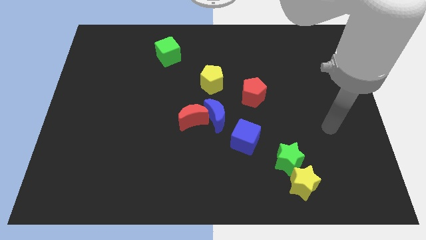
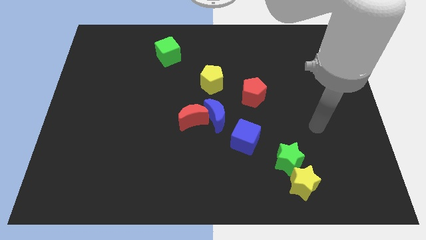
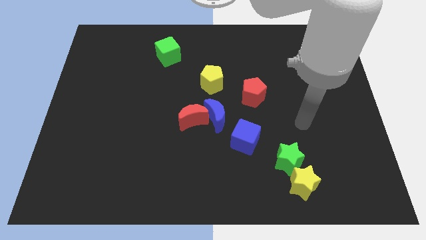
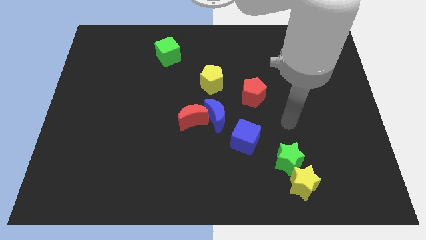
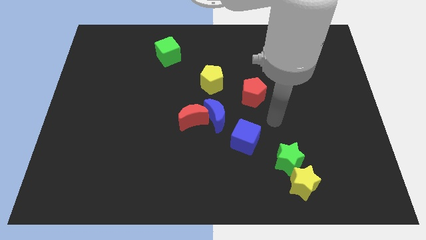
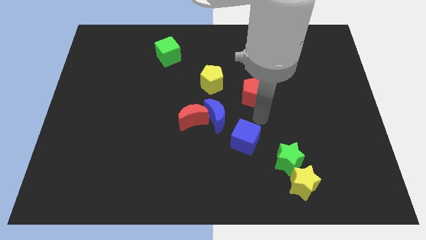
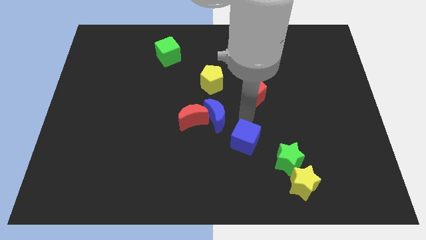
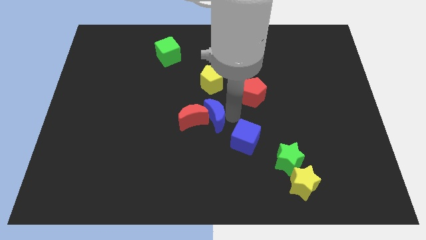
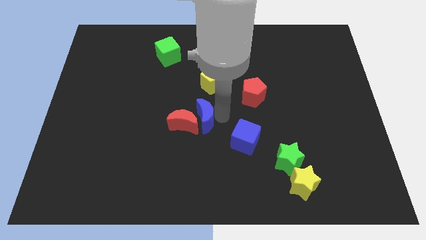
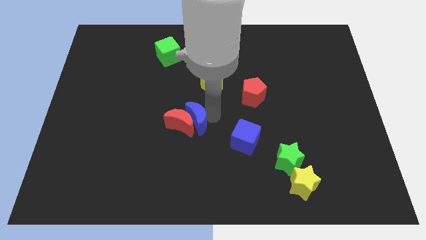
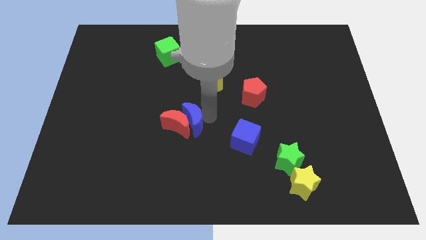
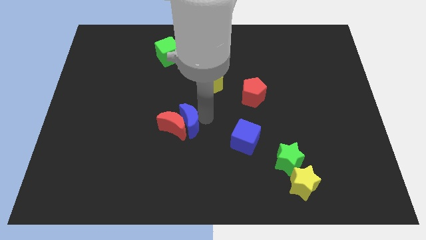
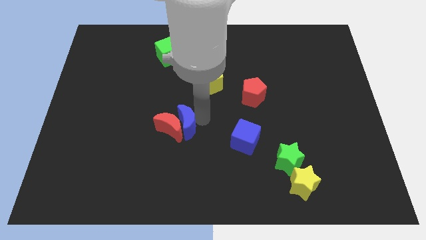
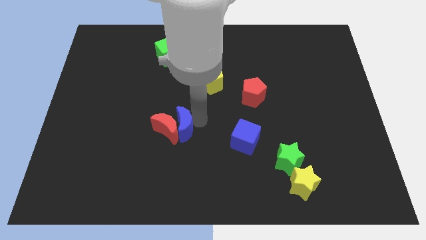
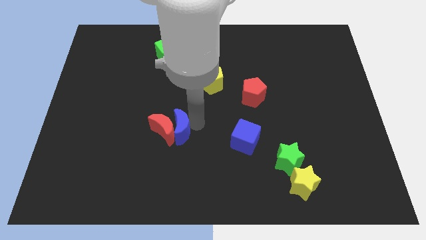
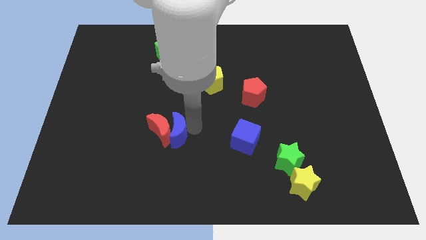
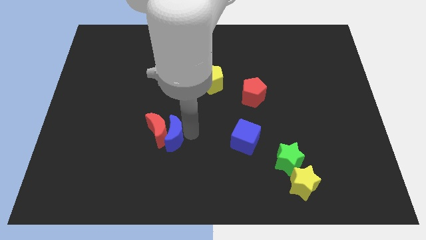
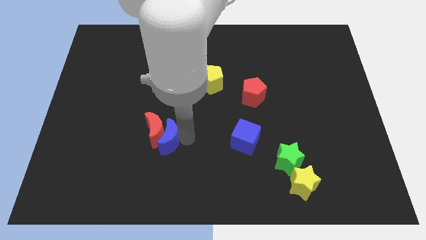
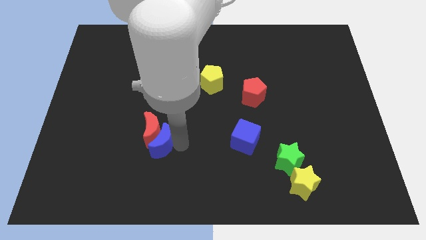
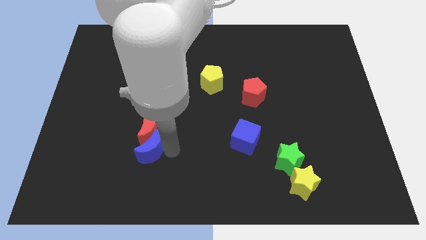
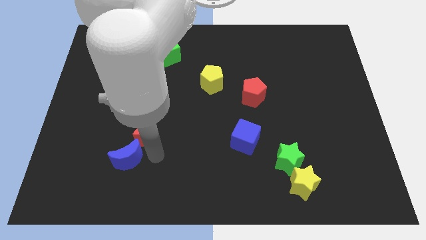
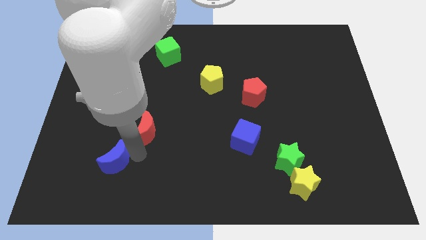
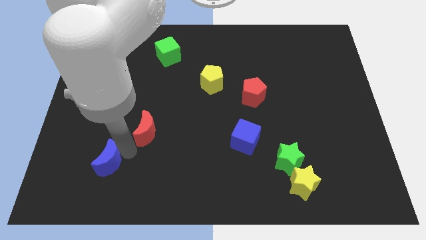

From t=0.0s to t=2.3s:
separate the red moon from the blue moon

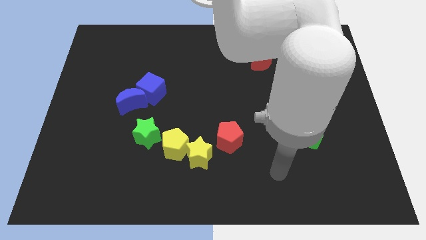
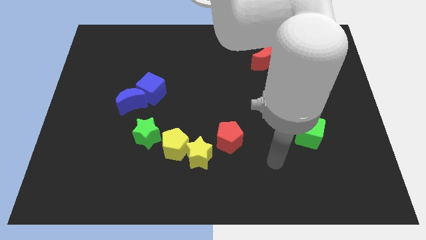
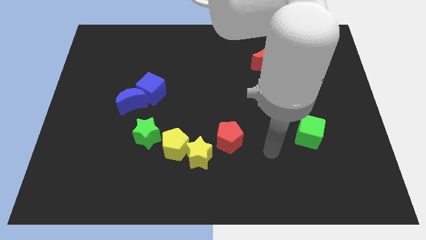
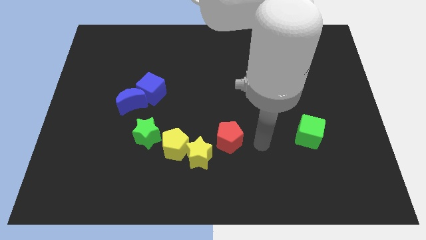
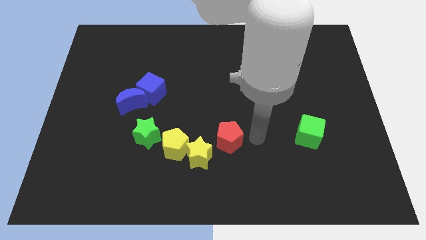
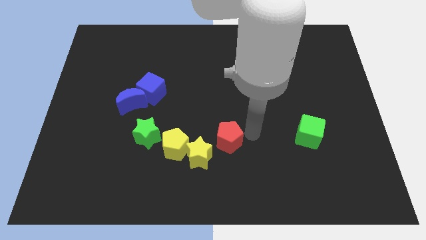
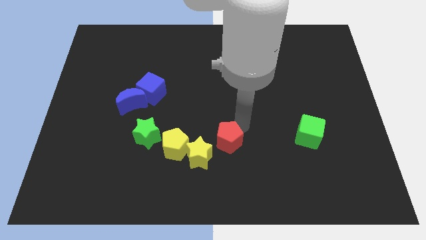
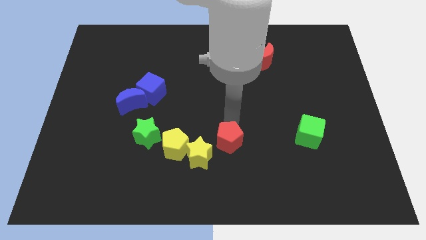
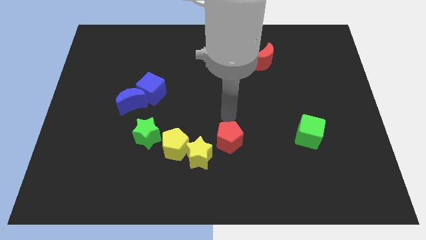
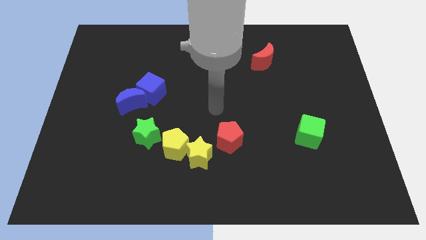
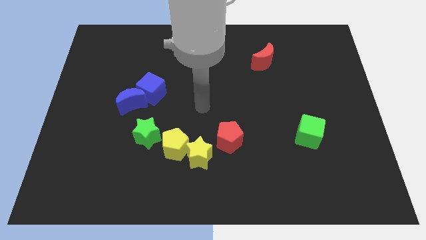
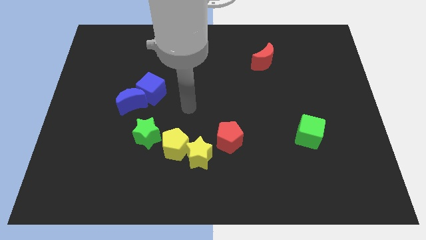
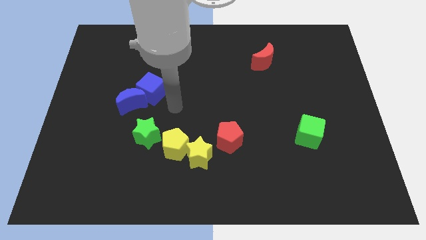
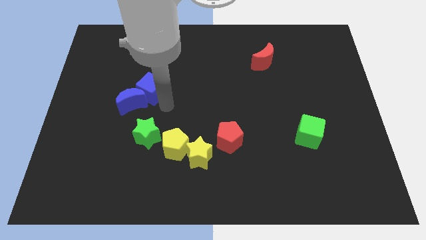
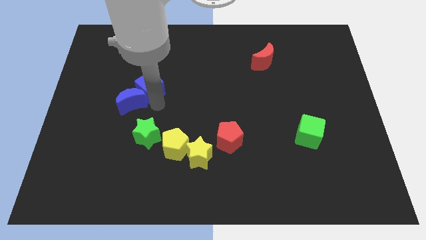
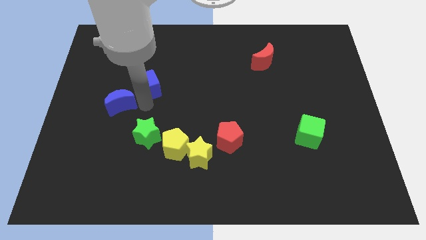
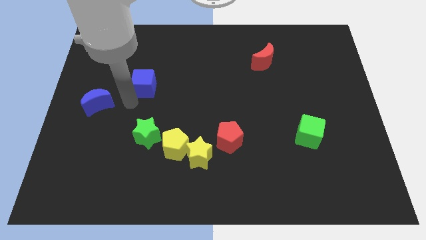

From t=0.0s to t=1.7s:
pull the blue cube apart from the blue moon

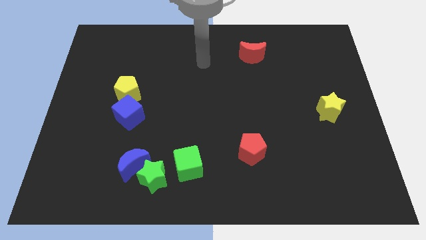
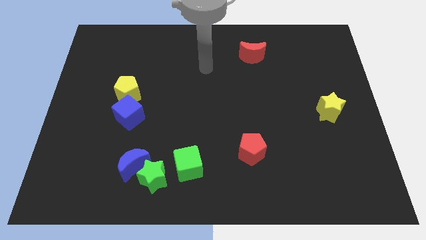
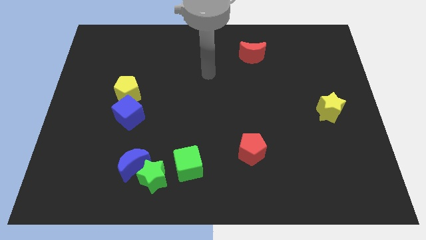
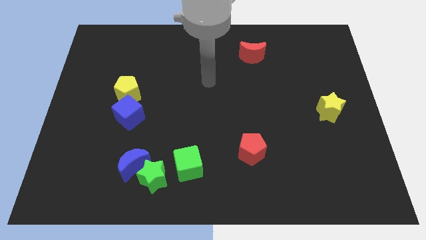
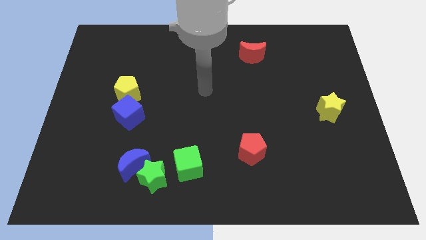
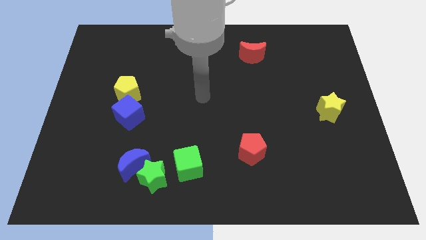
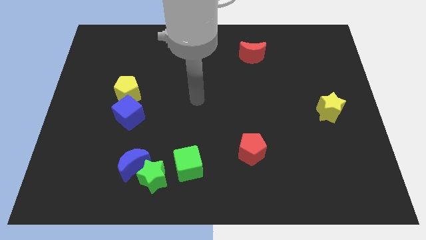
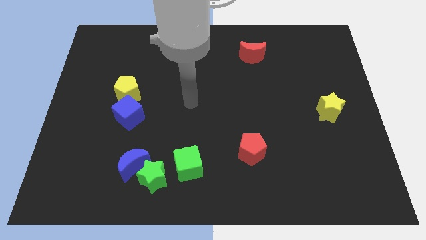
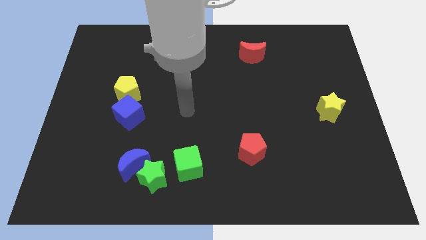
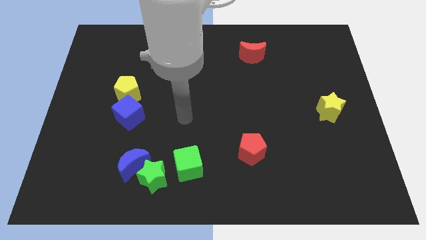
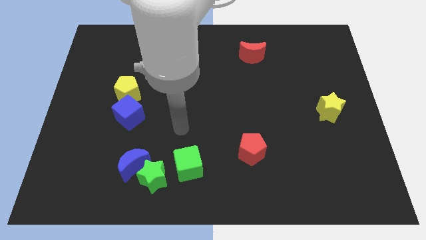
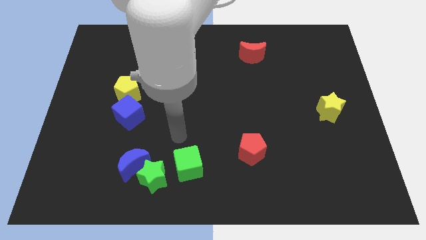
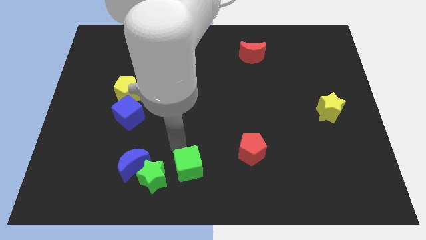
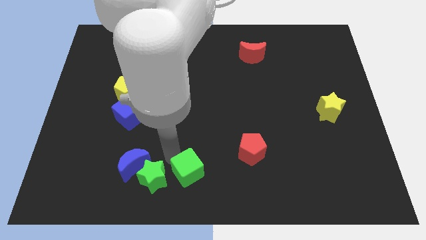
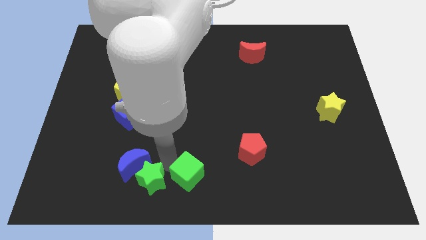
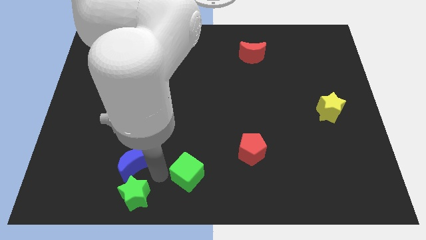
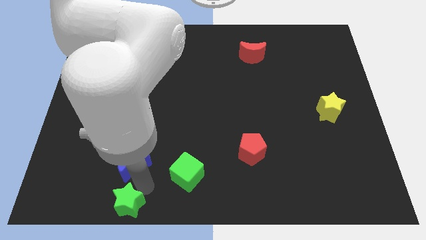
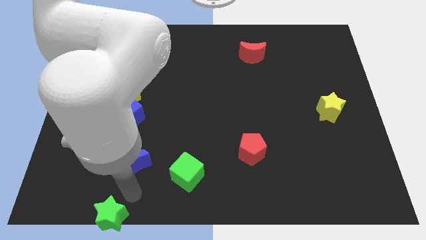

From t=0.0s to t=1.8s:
move the blue moon away from the green star

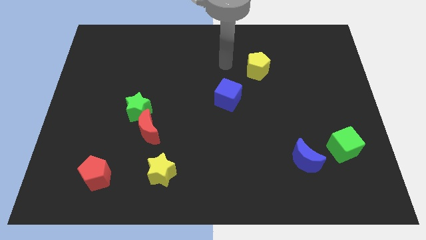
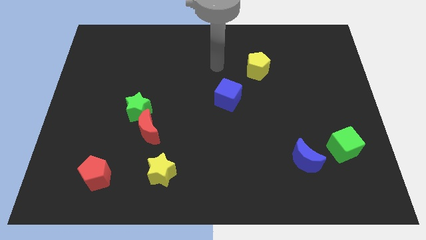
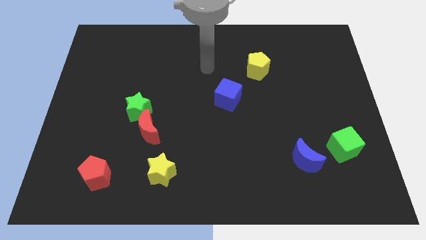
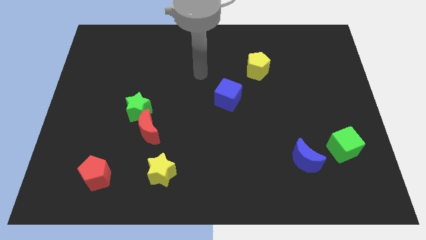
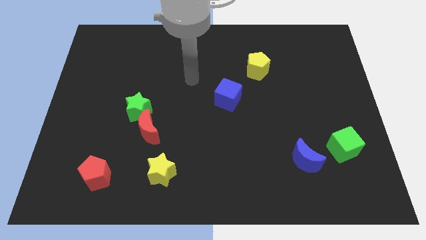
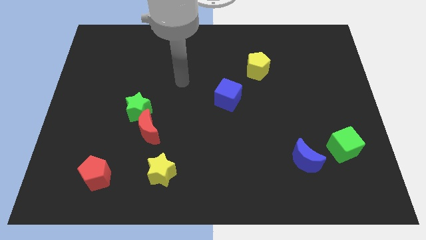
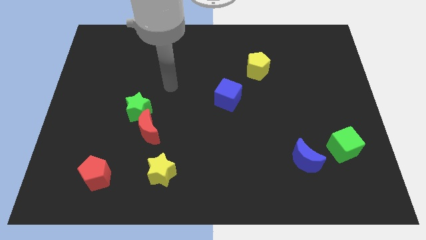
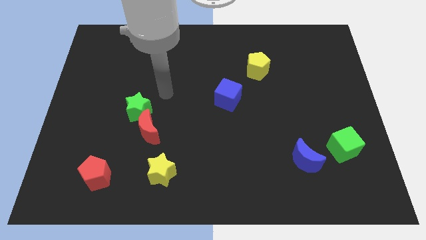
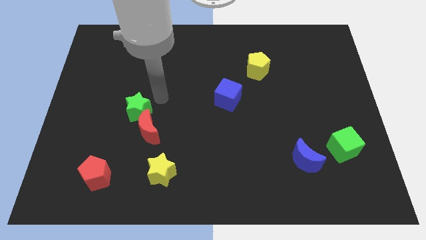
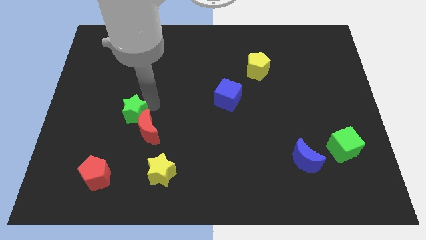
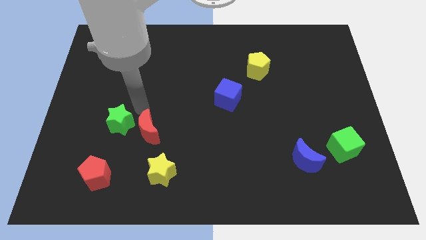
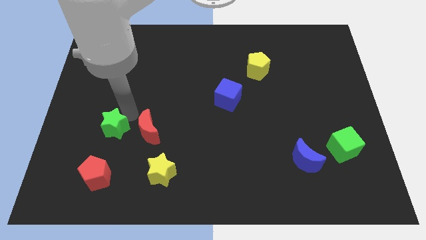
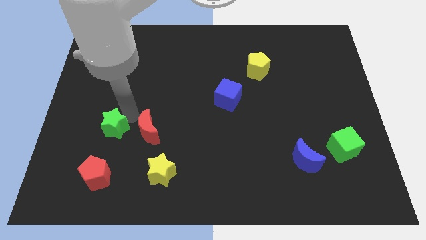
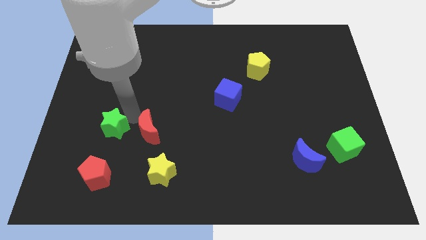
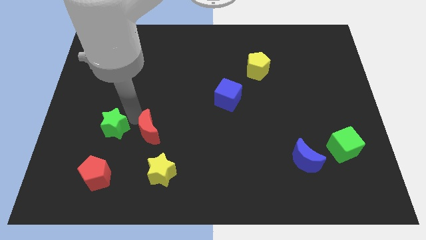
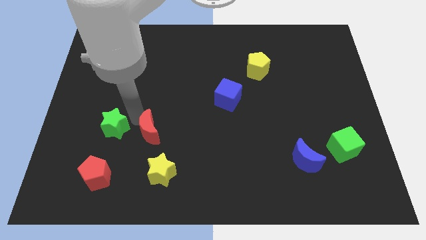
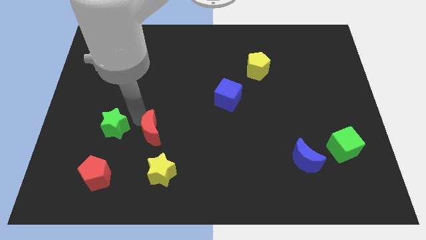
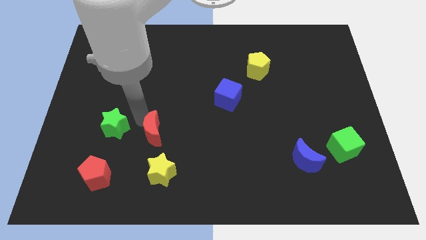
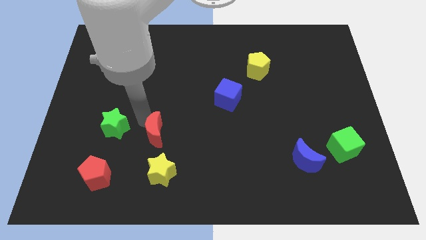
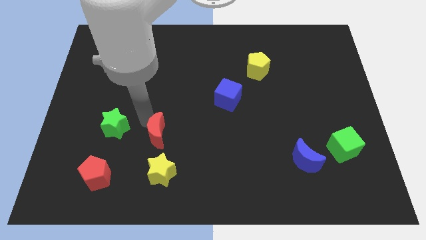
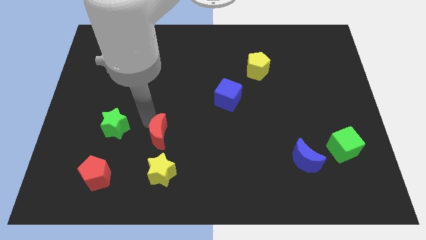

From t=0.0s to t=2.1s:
move the red moon away from the green star

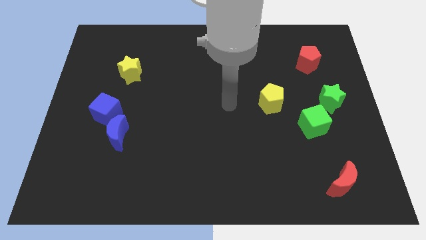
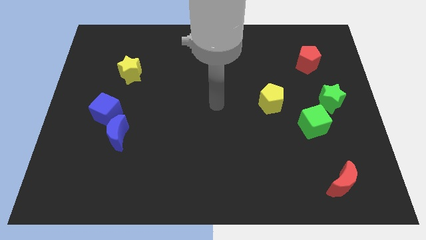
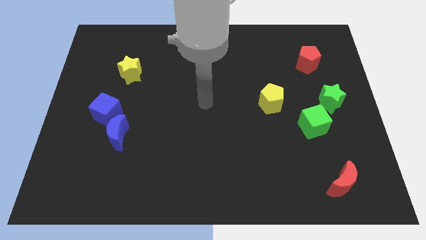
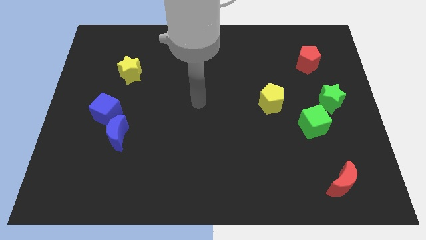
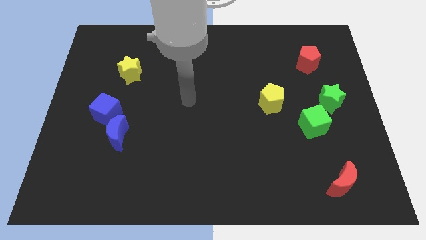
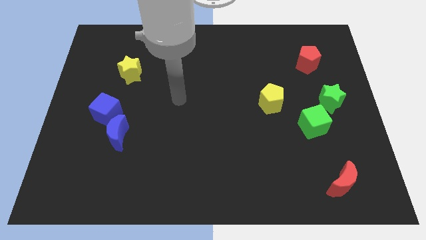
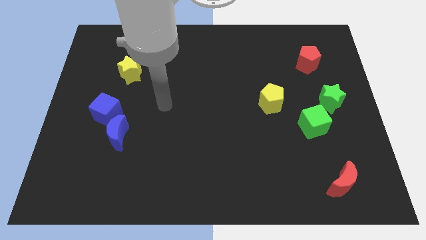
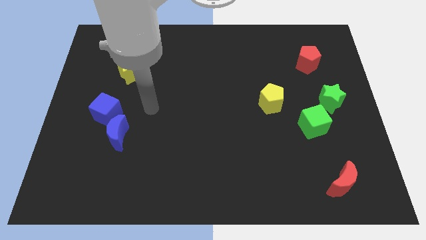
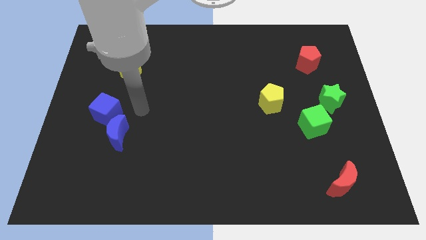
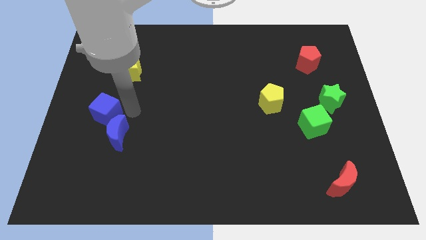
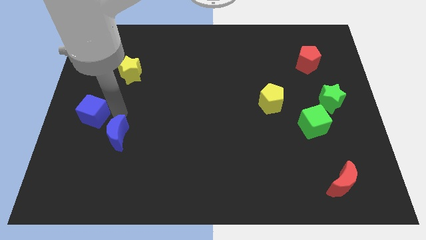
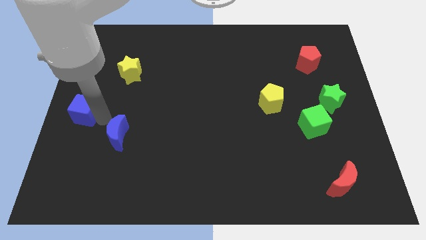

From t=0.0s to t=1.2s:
move the blue moon away from the blue cube

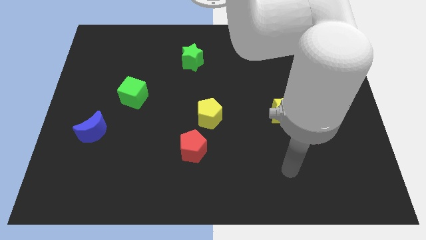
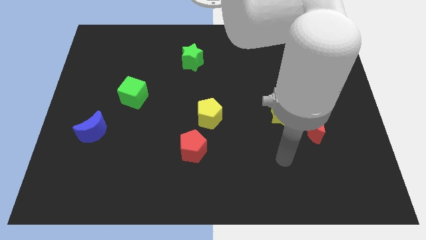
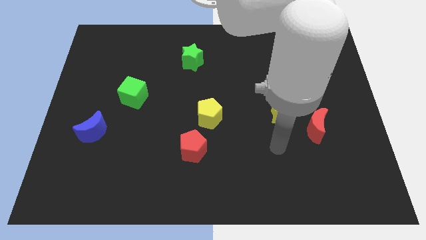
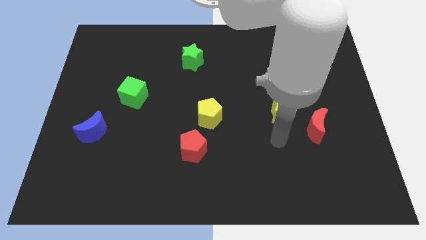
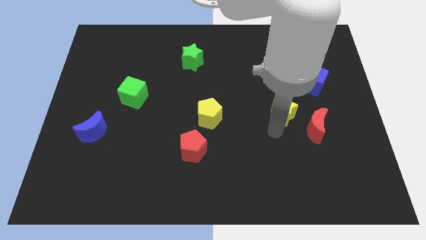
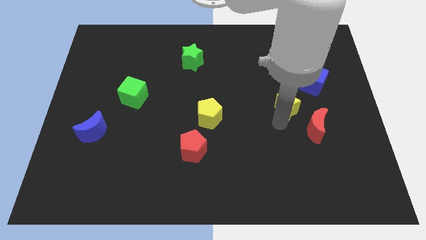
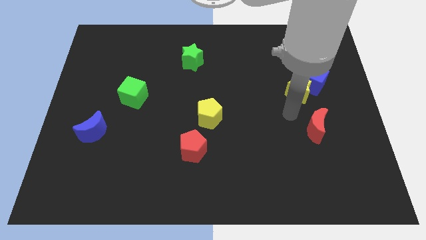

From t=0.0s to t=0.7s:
move the red moon away from the yellow star
